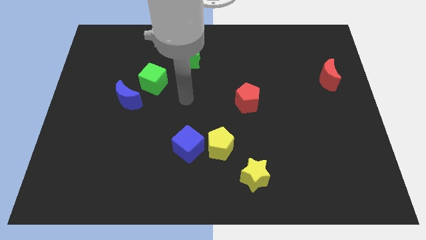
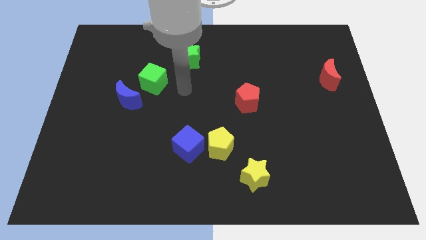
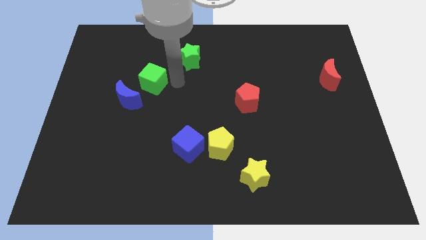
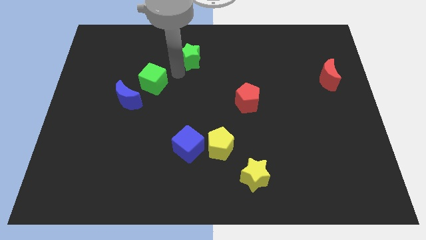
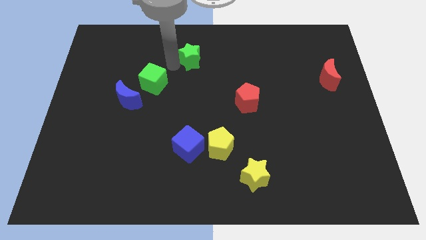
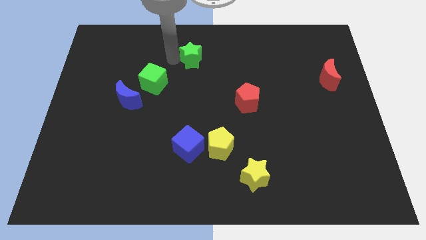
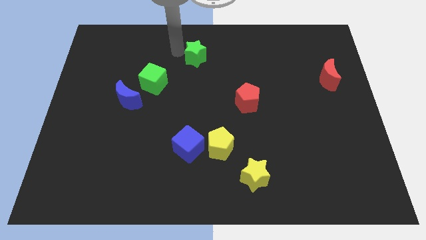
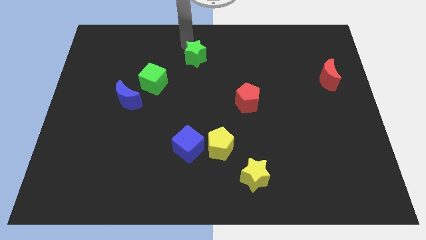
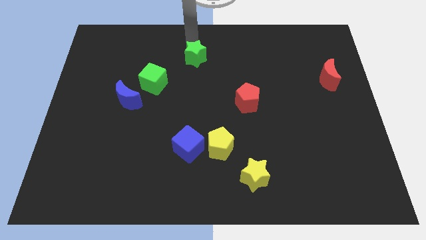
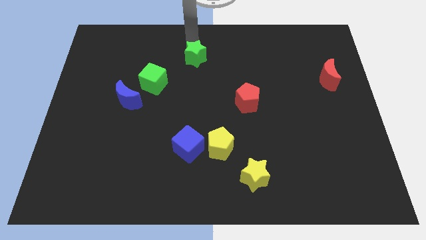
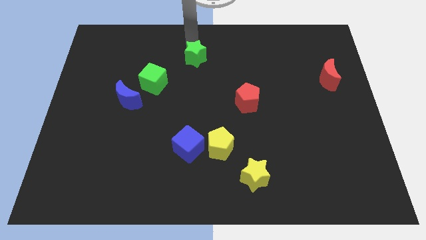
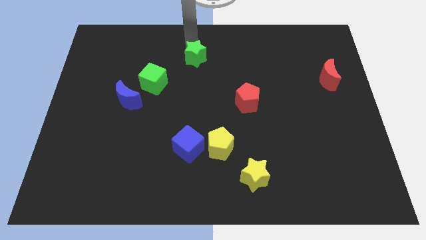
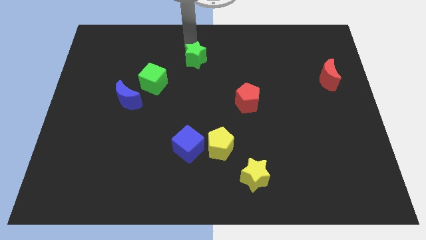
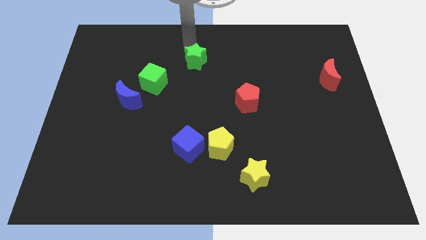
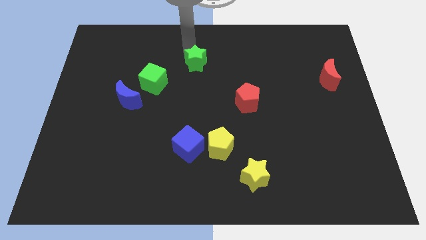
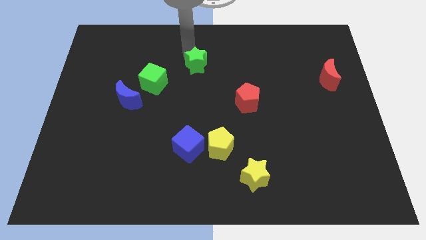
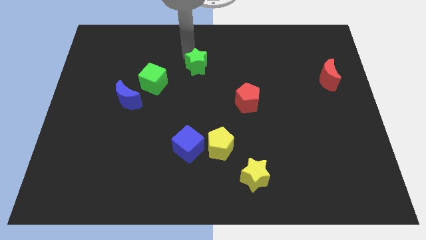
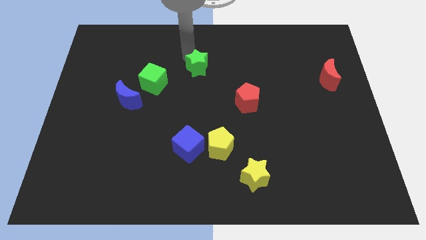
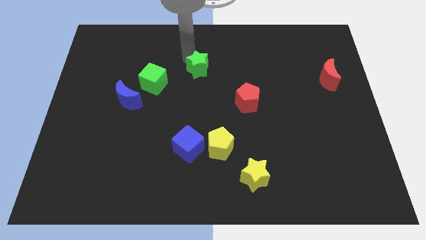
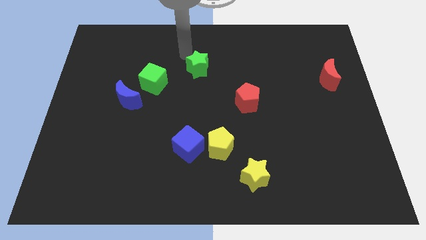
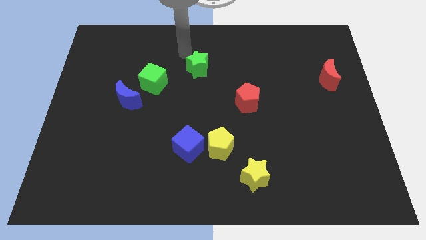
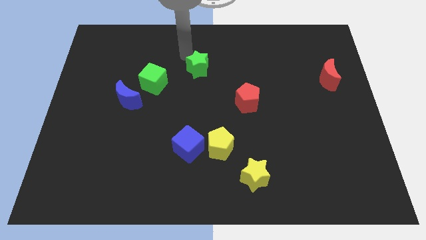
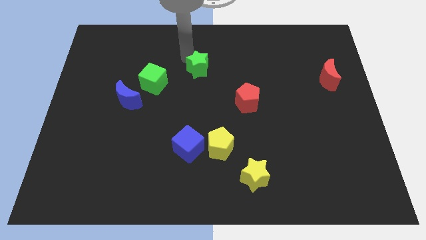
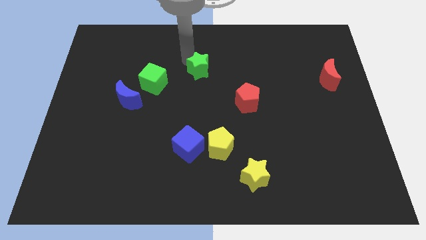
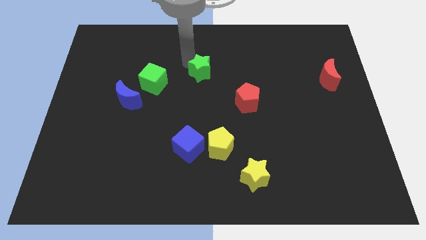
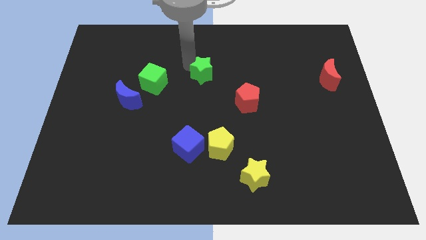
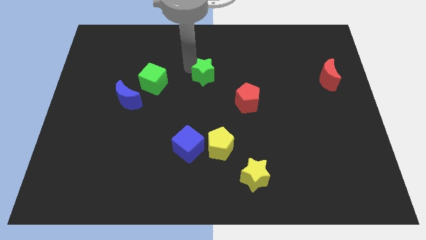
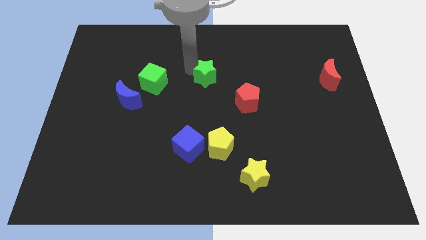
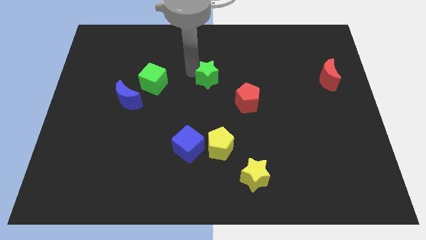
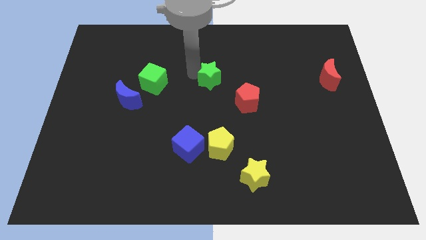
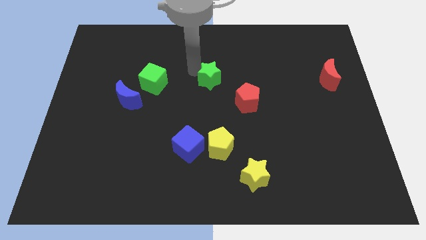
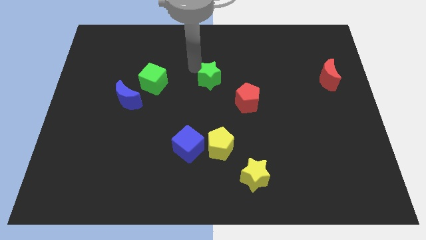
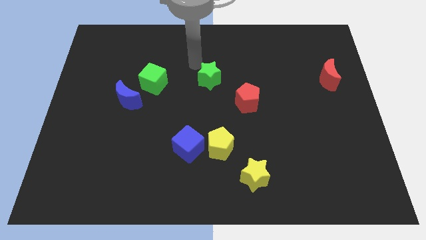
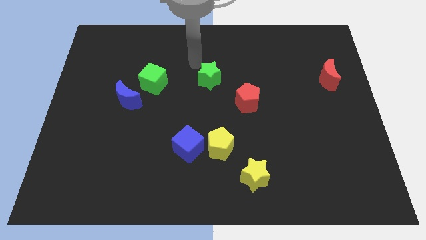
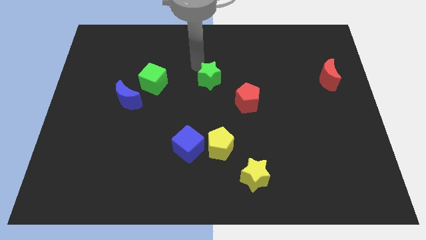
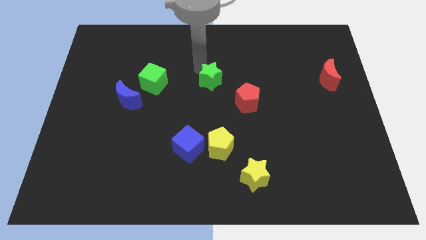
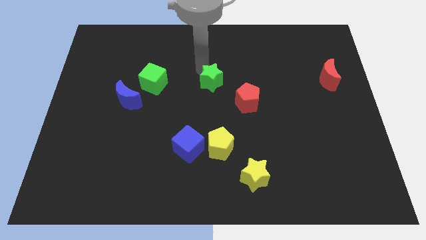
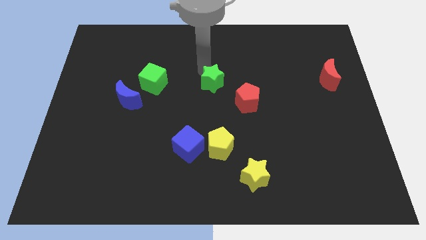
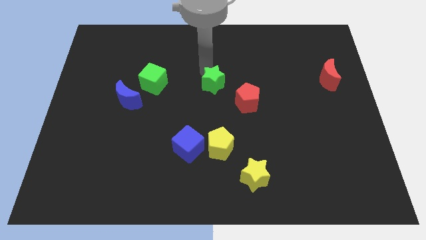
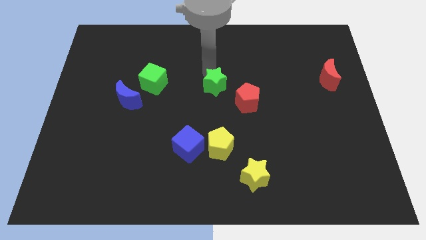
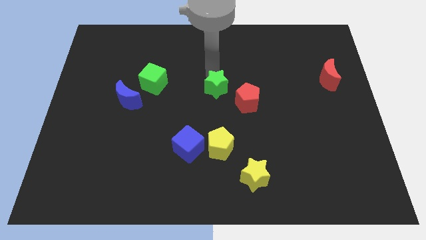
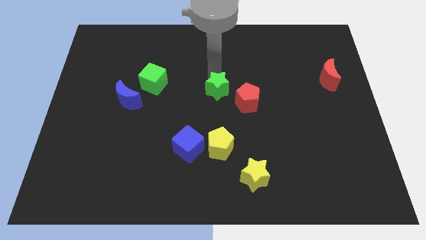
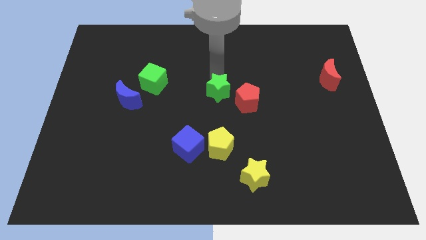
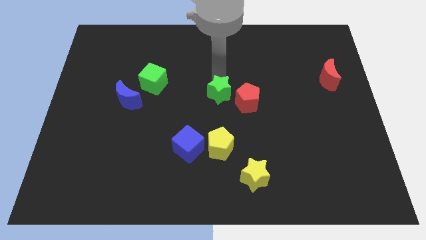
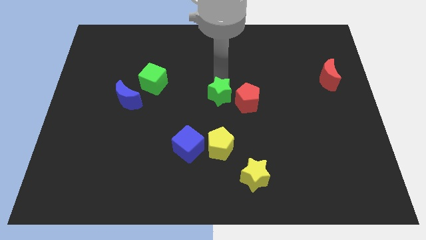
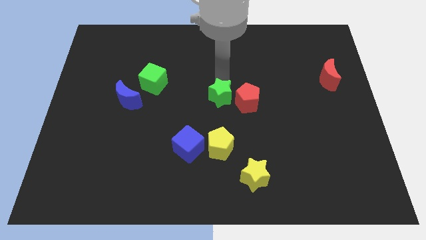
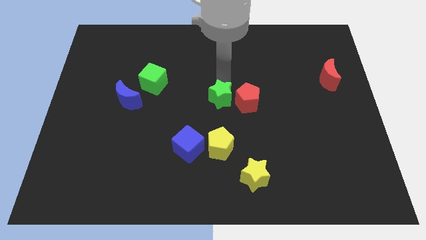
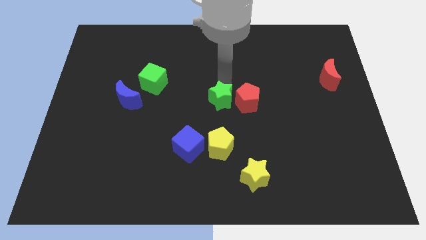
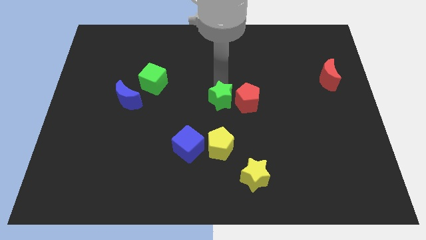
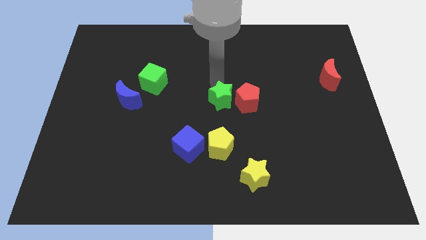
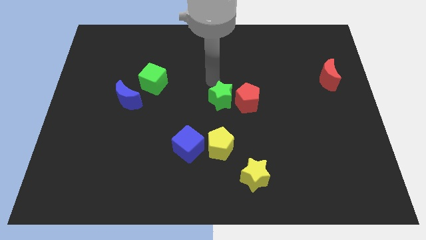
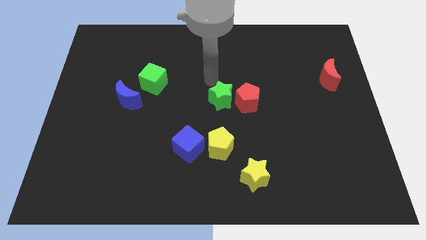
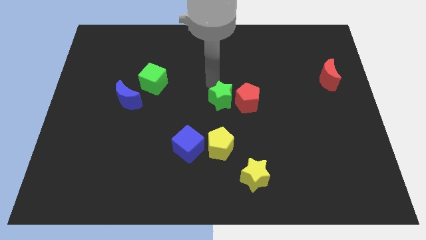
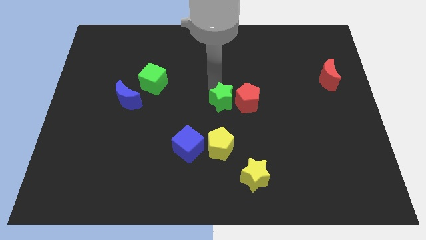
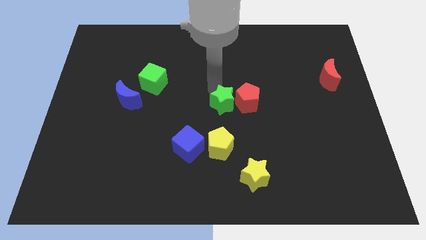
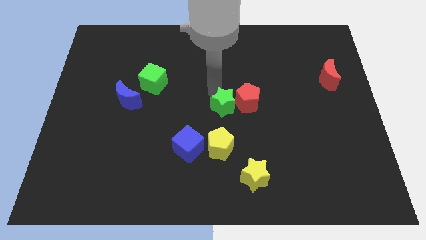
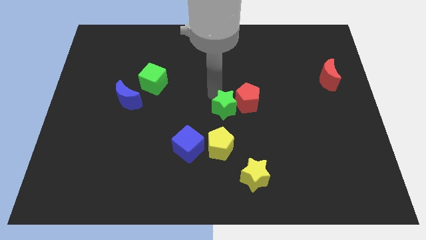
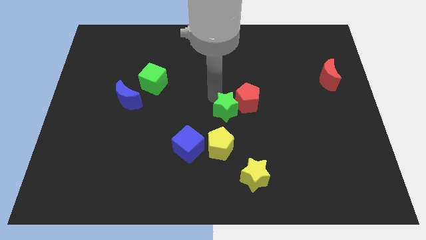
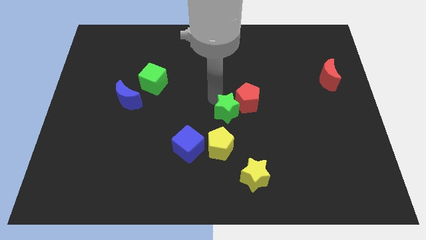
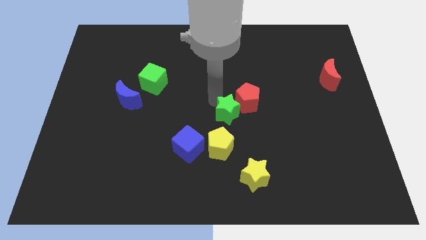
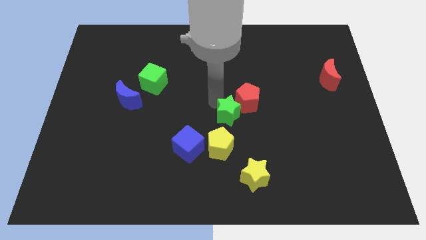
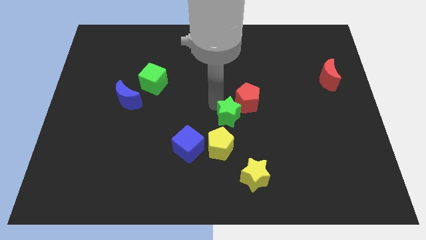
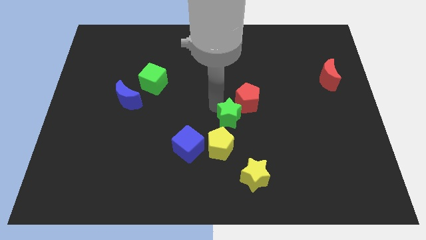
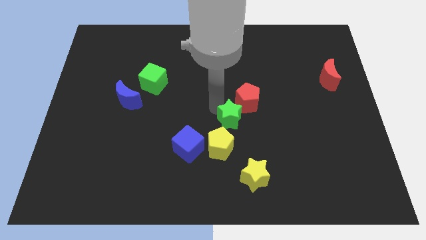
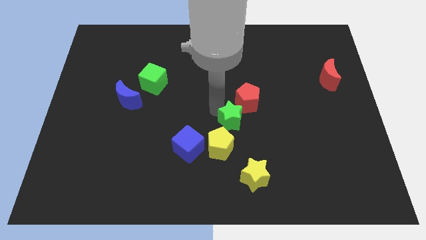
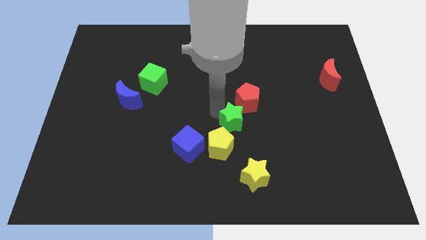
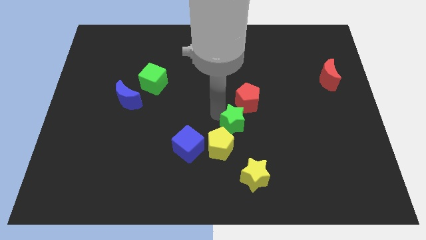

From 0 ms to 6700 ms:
move the green star diagonally down and to the right

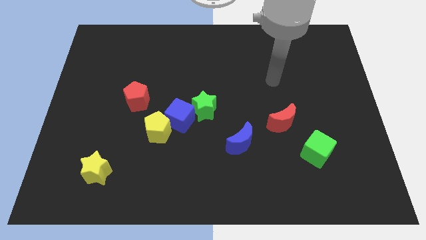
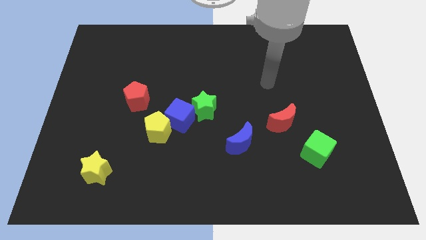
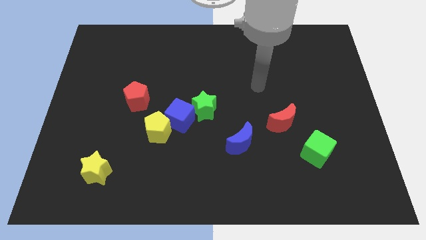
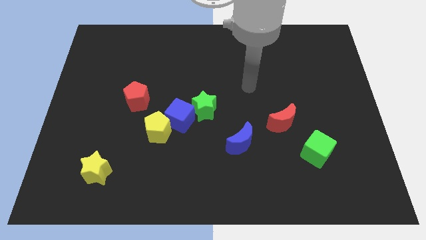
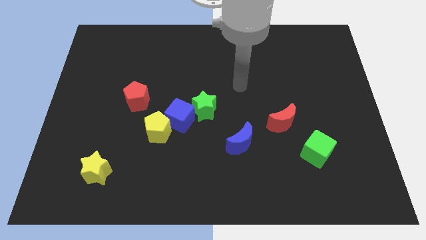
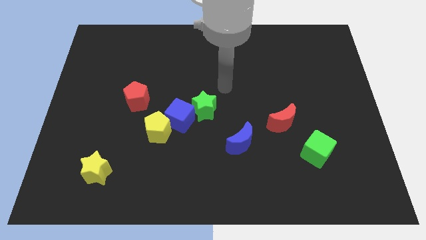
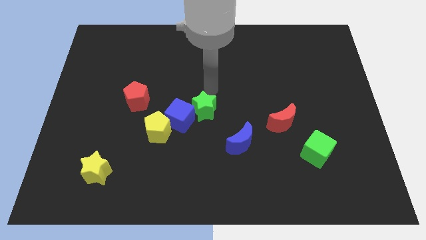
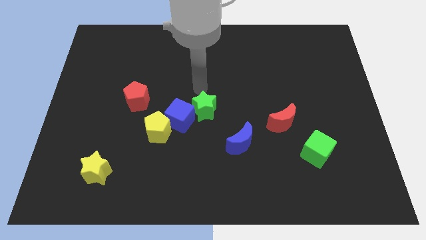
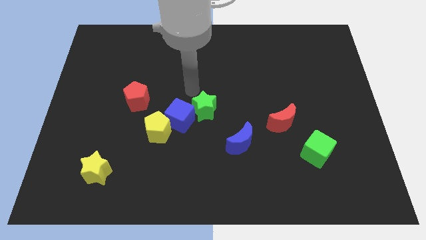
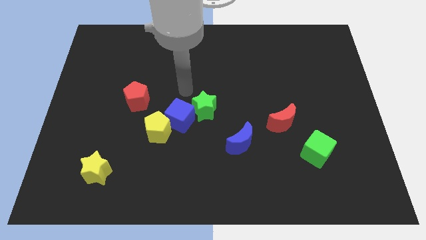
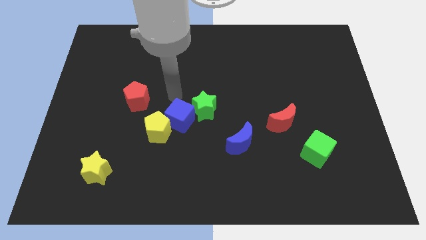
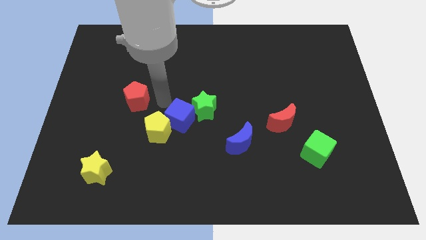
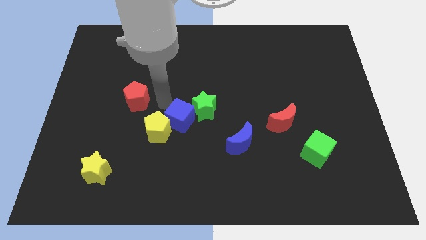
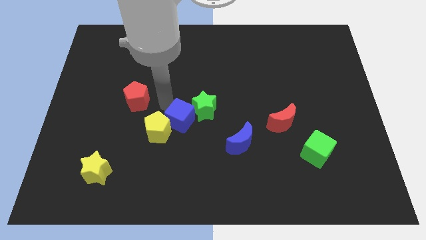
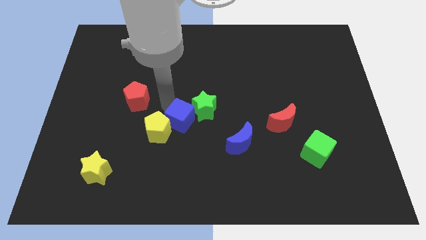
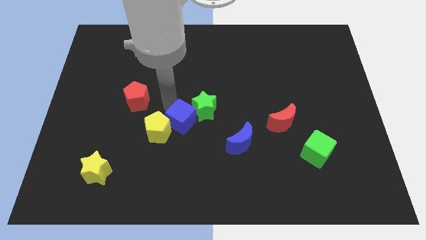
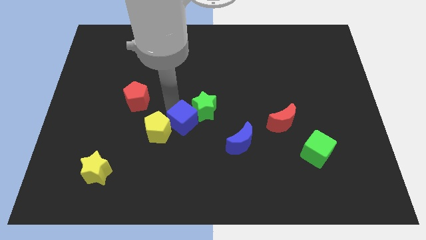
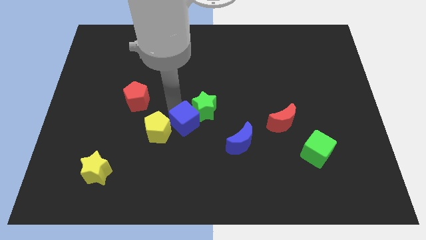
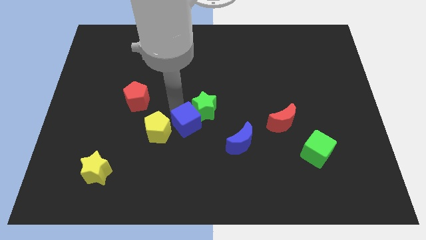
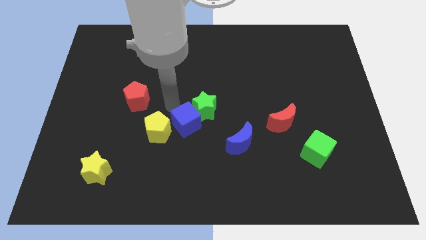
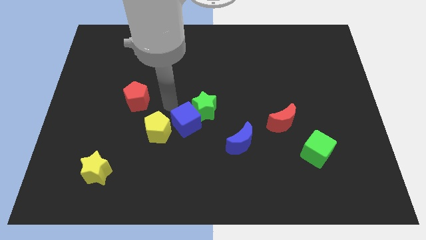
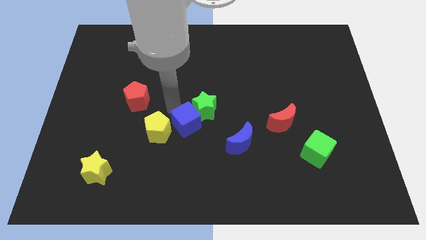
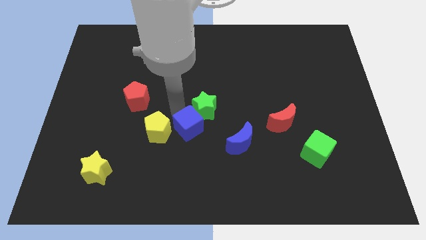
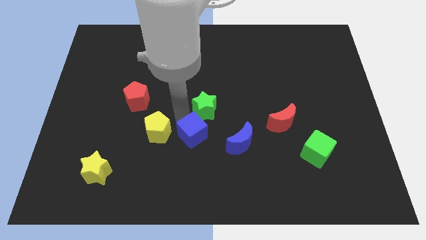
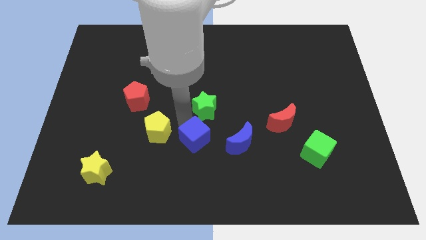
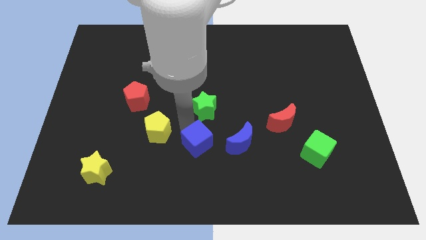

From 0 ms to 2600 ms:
slightly slide the blue cube down and then right
